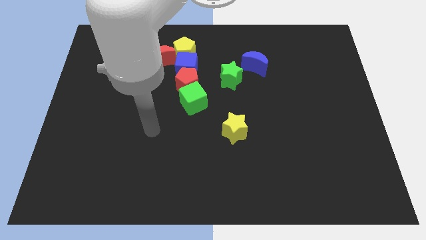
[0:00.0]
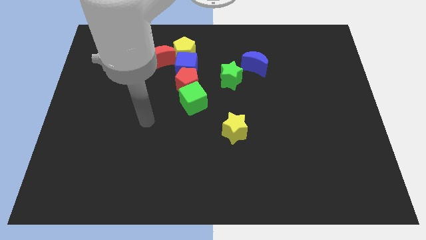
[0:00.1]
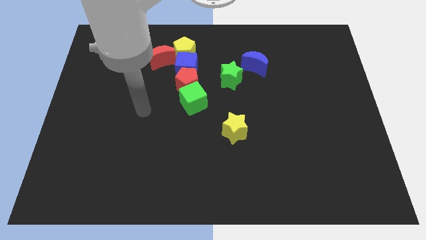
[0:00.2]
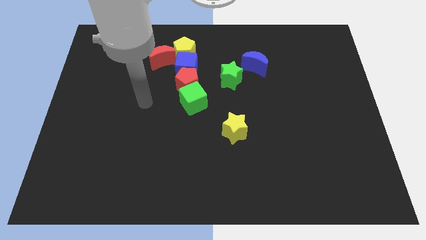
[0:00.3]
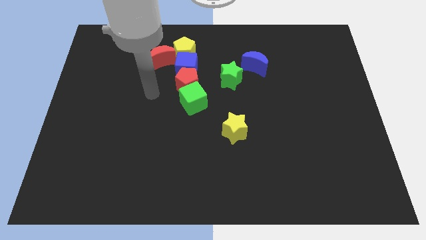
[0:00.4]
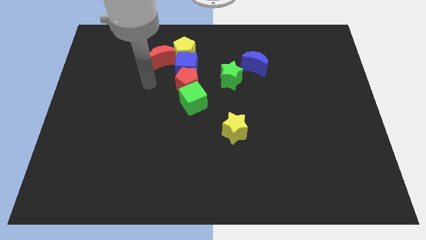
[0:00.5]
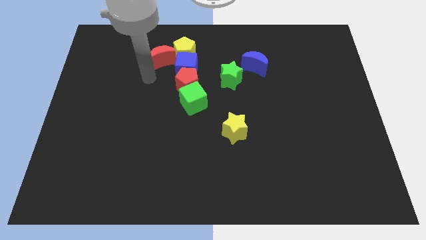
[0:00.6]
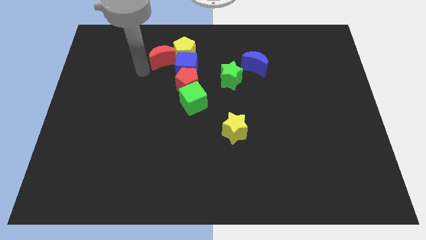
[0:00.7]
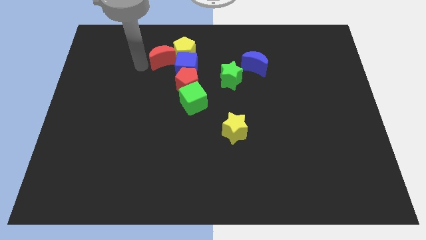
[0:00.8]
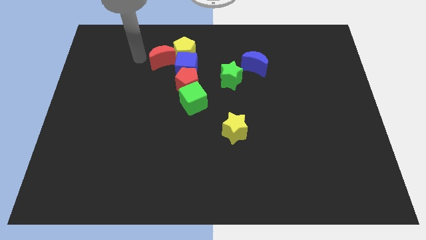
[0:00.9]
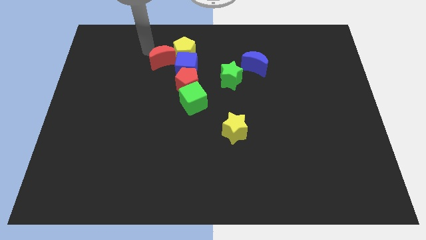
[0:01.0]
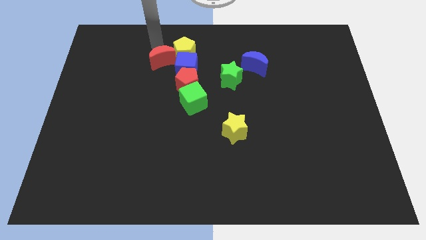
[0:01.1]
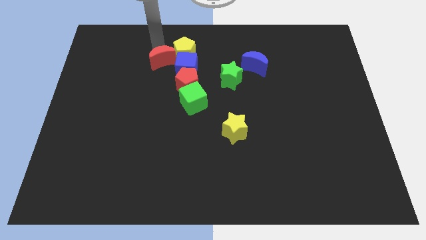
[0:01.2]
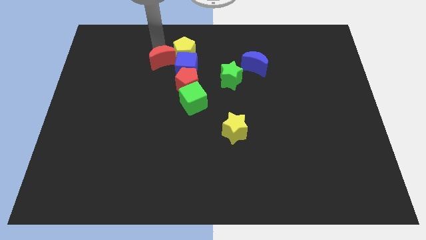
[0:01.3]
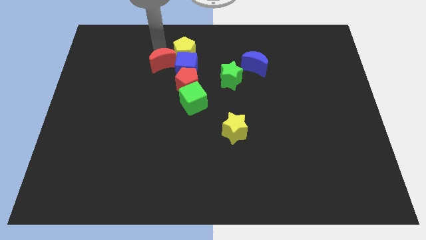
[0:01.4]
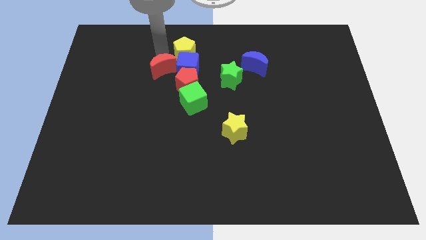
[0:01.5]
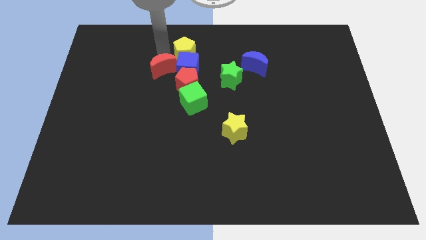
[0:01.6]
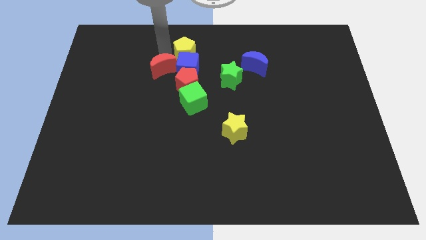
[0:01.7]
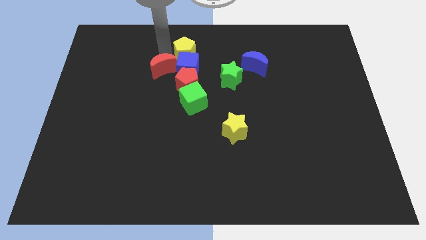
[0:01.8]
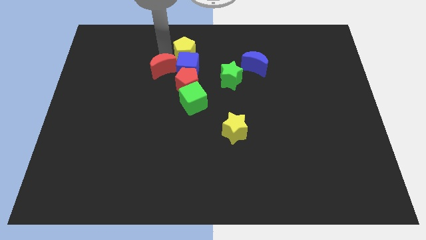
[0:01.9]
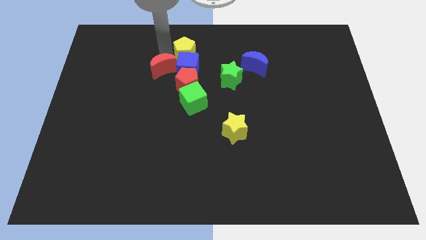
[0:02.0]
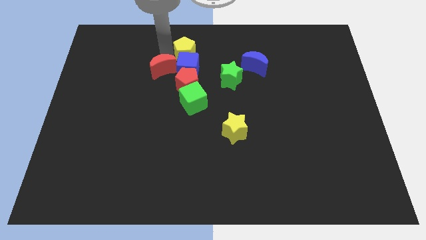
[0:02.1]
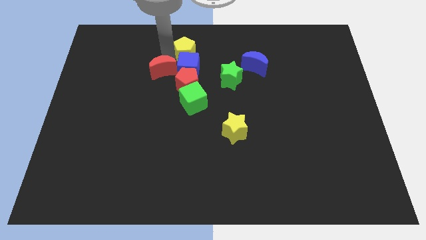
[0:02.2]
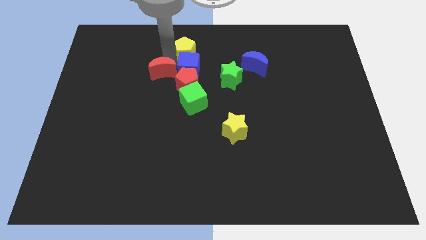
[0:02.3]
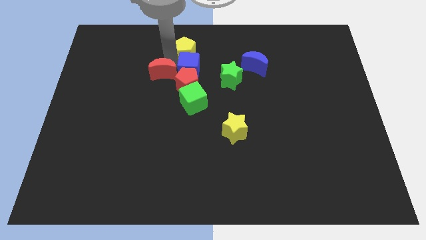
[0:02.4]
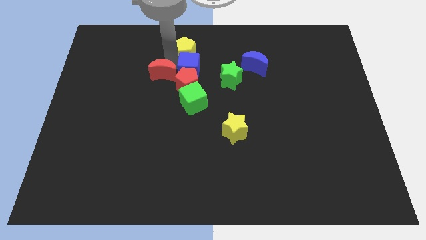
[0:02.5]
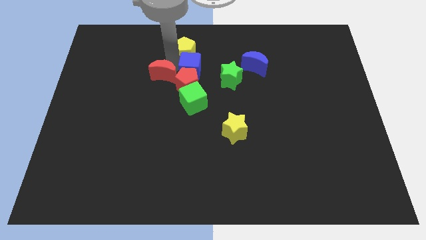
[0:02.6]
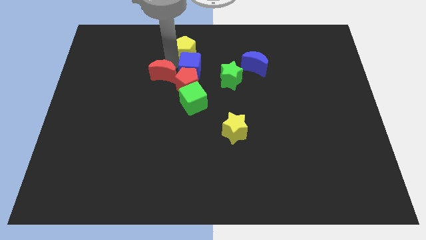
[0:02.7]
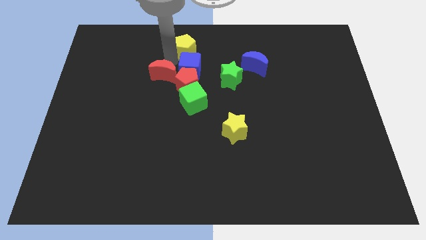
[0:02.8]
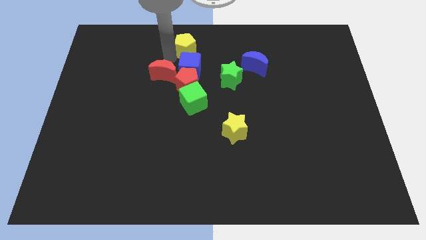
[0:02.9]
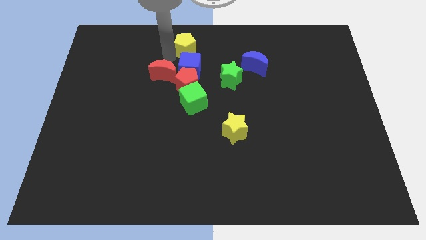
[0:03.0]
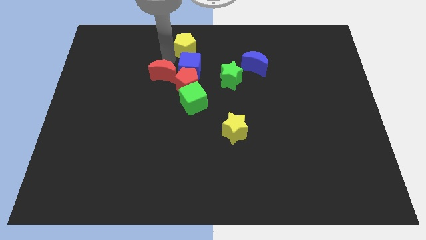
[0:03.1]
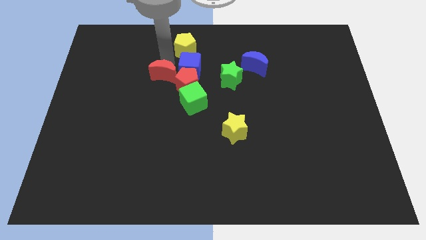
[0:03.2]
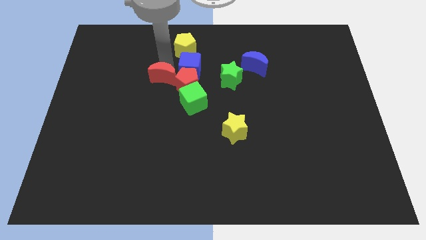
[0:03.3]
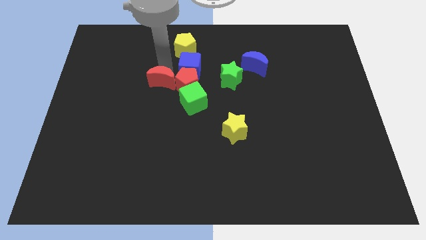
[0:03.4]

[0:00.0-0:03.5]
slightly move the red moon down

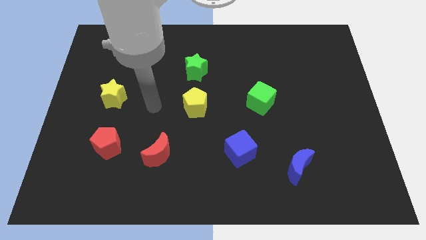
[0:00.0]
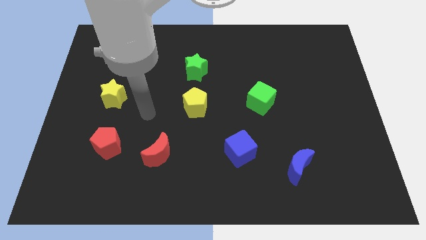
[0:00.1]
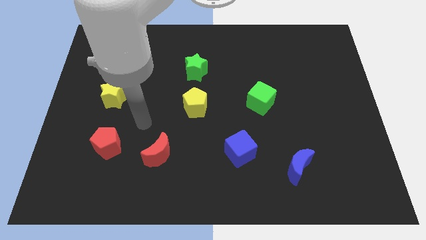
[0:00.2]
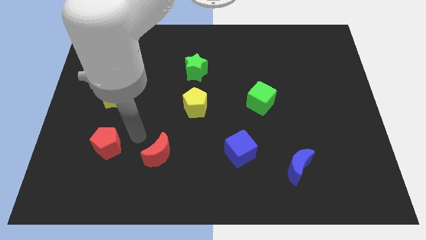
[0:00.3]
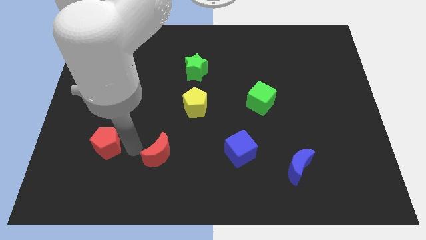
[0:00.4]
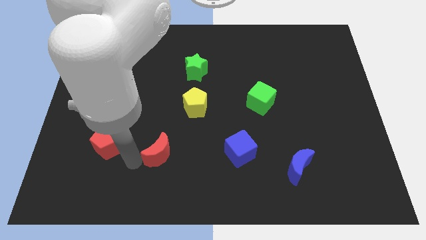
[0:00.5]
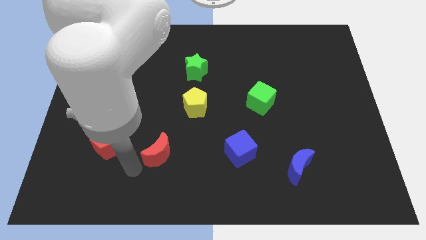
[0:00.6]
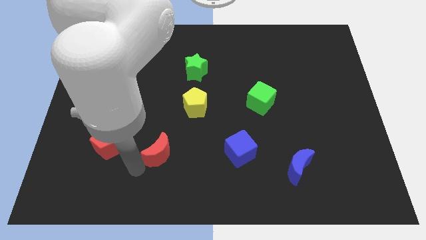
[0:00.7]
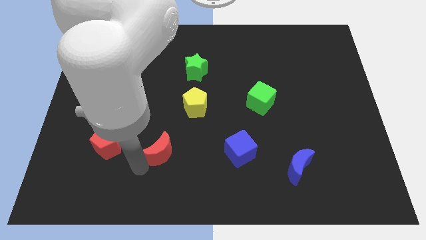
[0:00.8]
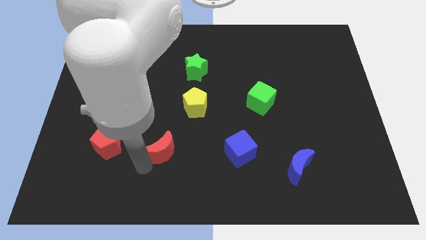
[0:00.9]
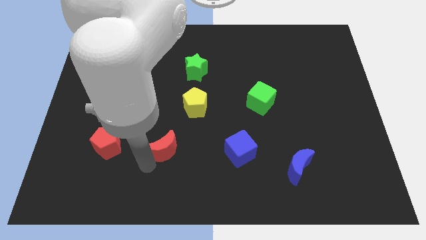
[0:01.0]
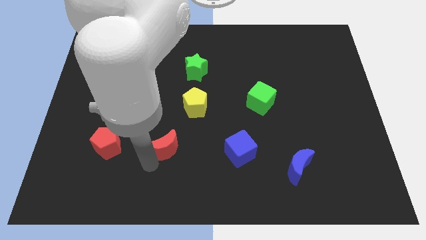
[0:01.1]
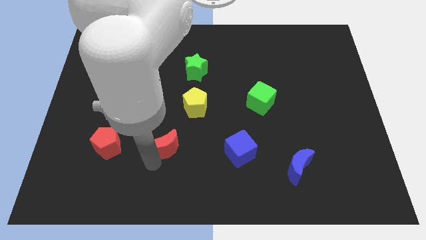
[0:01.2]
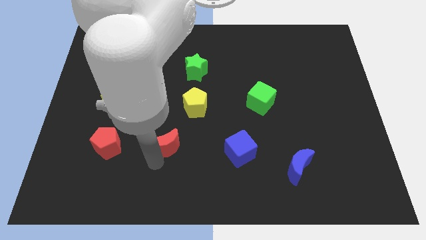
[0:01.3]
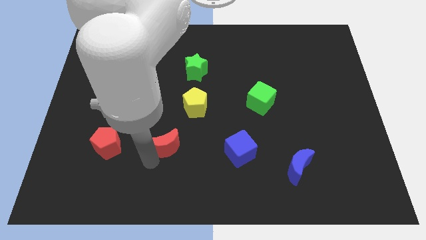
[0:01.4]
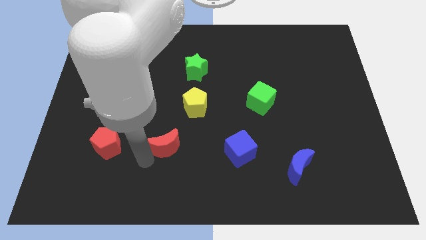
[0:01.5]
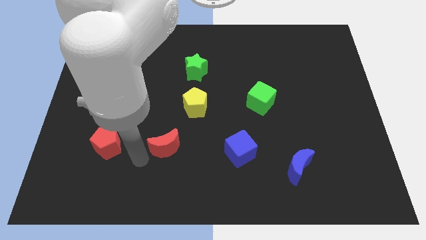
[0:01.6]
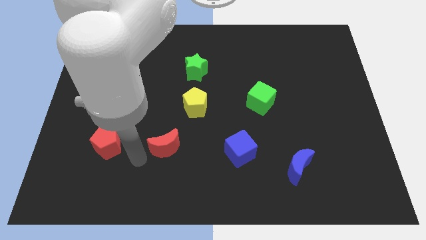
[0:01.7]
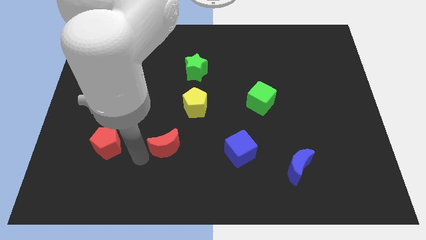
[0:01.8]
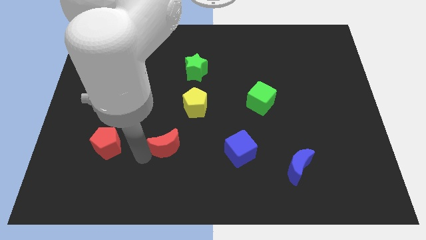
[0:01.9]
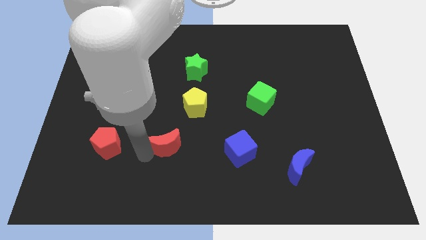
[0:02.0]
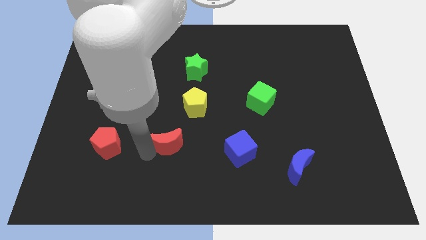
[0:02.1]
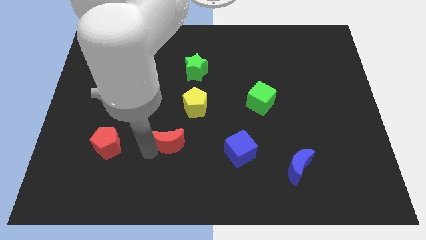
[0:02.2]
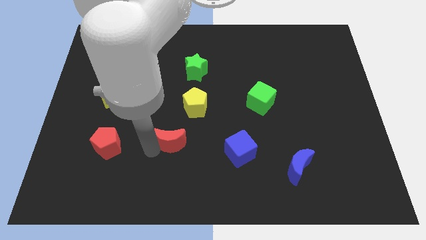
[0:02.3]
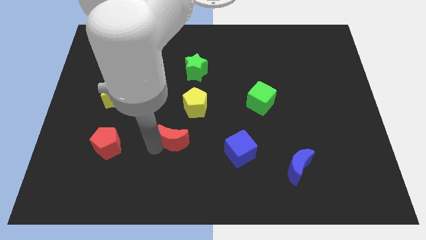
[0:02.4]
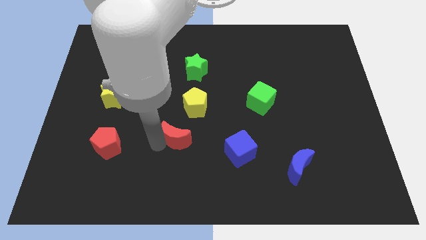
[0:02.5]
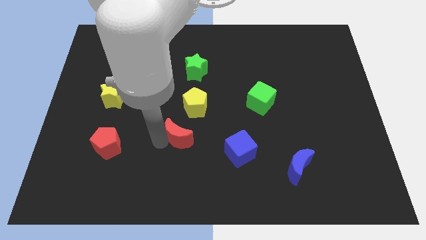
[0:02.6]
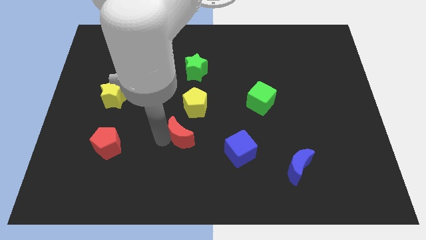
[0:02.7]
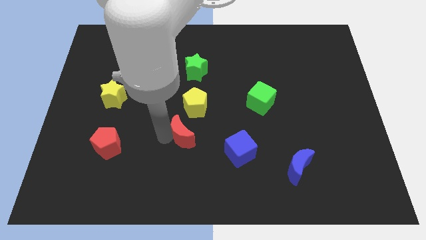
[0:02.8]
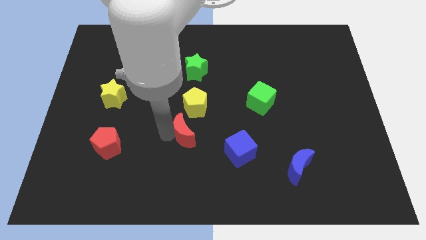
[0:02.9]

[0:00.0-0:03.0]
move the red moon up and to the right diagonally a little

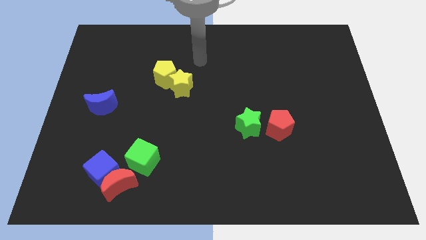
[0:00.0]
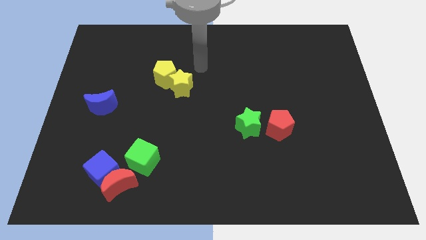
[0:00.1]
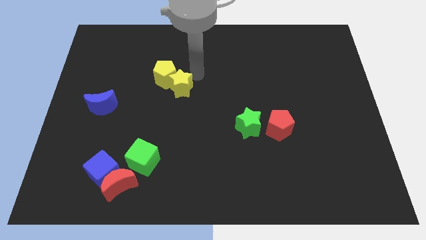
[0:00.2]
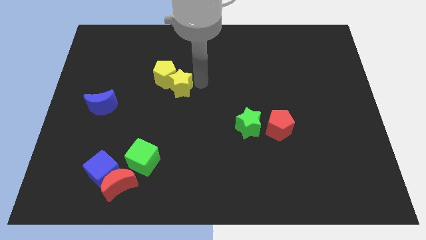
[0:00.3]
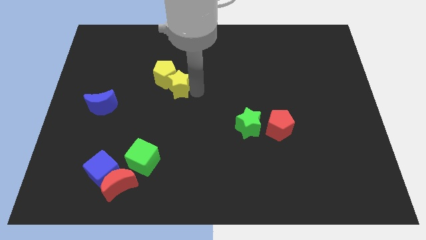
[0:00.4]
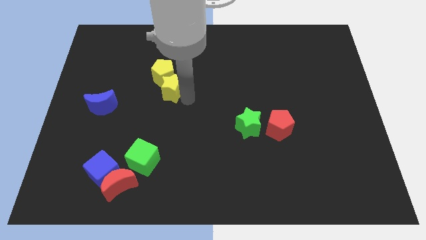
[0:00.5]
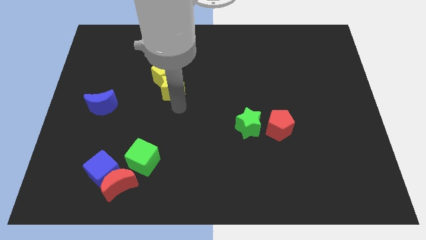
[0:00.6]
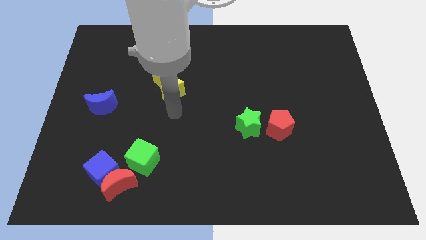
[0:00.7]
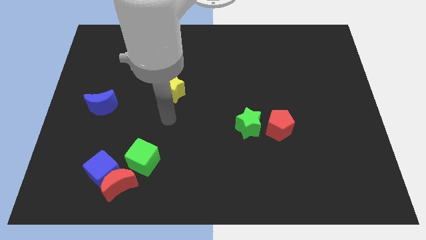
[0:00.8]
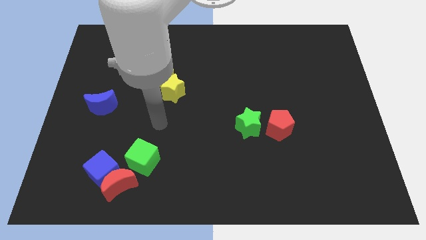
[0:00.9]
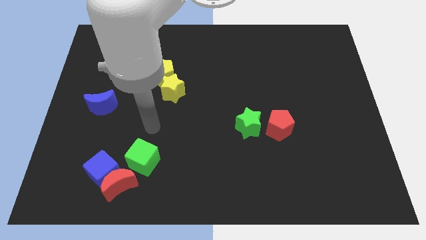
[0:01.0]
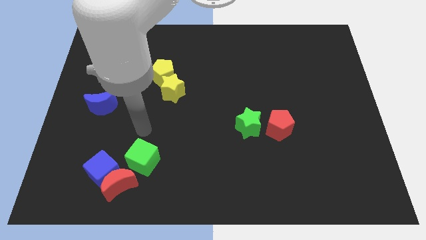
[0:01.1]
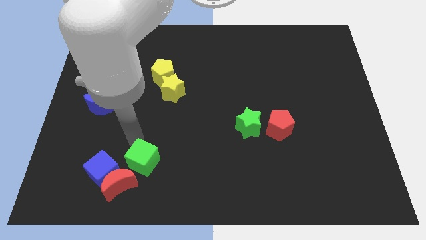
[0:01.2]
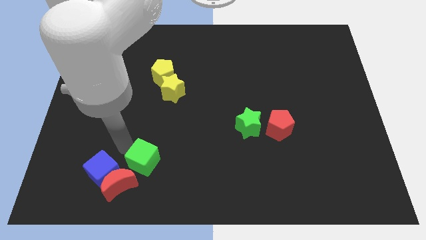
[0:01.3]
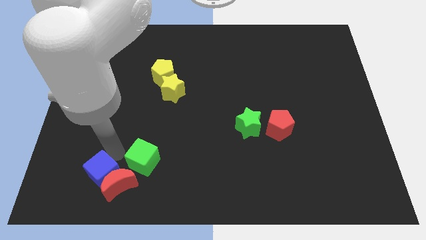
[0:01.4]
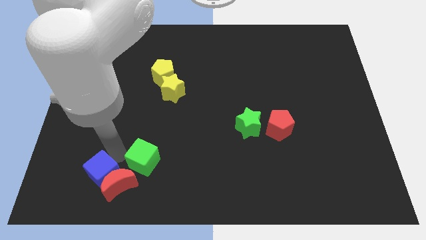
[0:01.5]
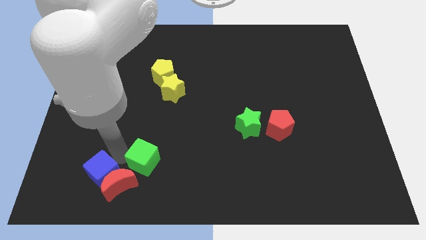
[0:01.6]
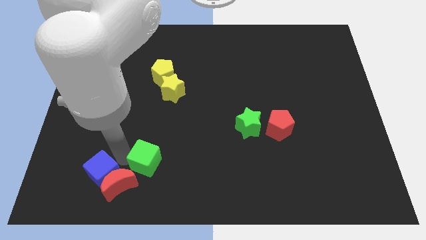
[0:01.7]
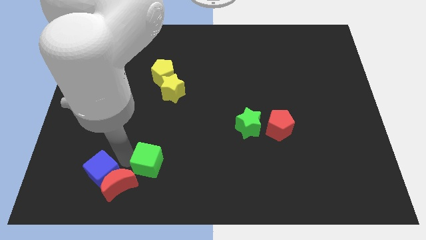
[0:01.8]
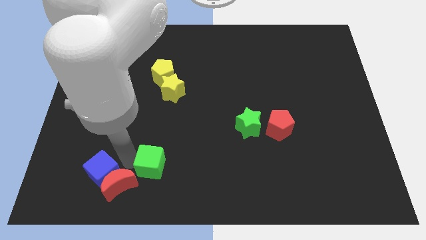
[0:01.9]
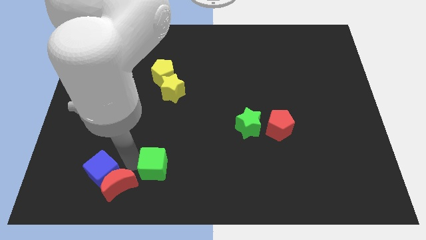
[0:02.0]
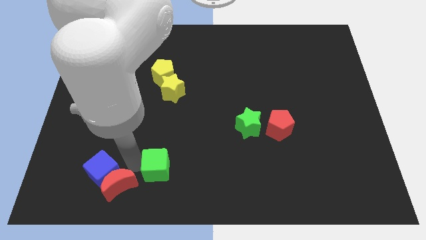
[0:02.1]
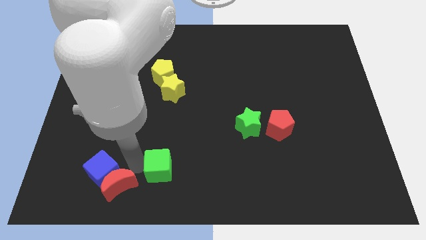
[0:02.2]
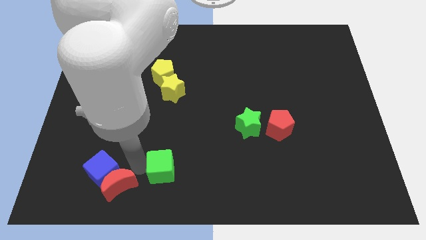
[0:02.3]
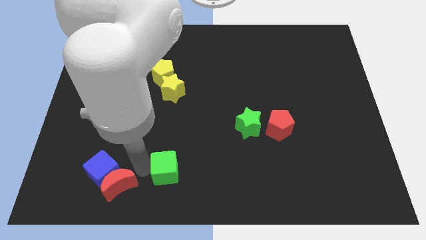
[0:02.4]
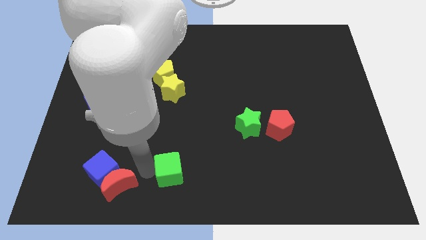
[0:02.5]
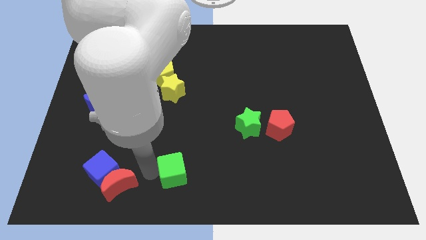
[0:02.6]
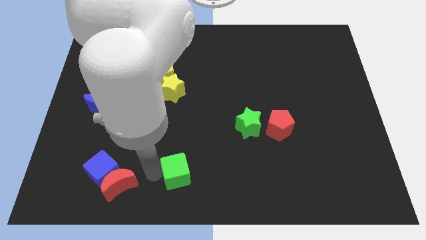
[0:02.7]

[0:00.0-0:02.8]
push the green cube a little to the right
